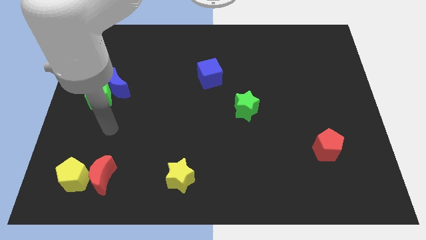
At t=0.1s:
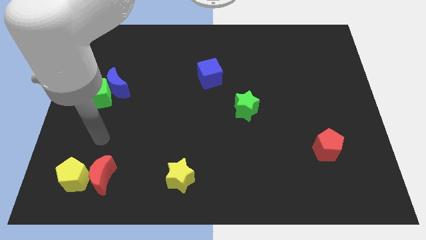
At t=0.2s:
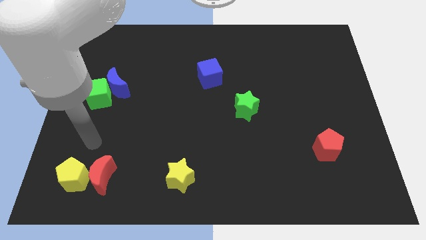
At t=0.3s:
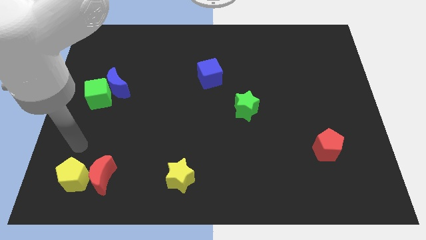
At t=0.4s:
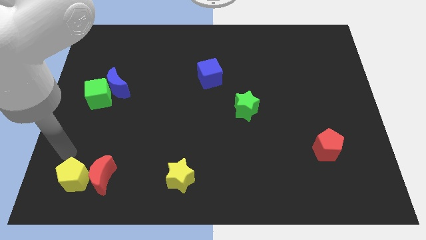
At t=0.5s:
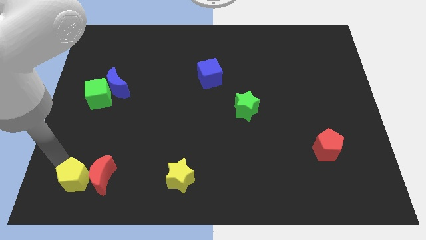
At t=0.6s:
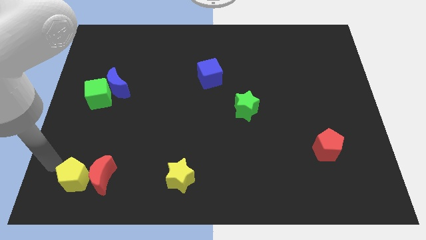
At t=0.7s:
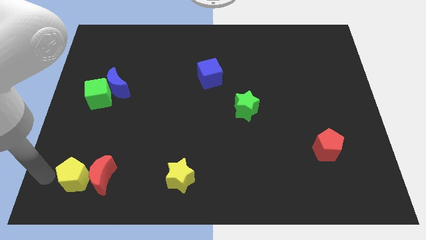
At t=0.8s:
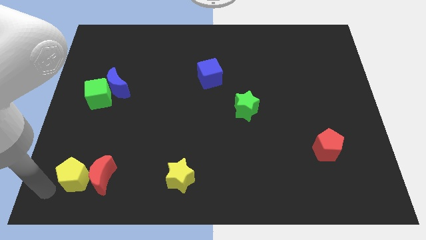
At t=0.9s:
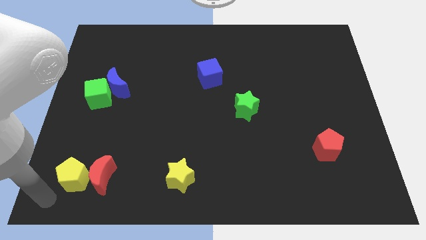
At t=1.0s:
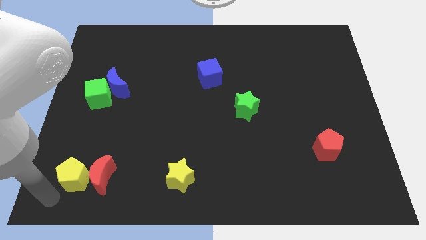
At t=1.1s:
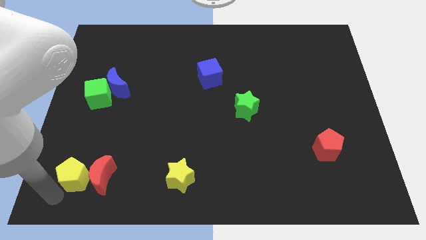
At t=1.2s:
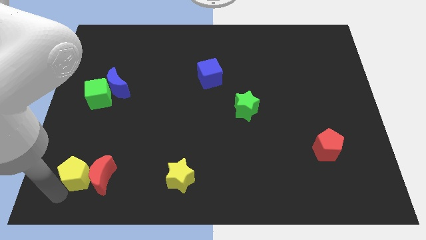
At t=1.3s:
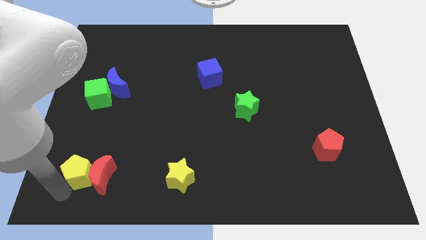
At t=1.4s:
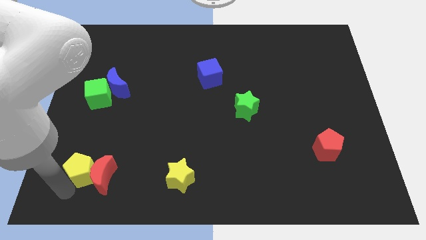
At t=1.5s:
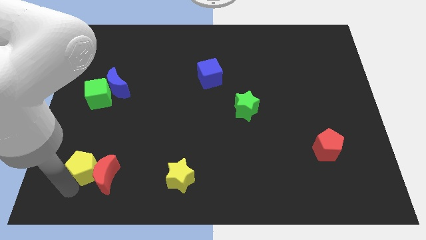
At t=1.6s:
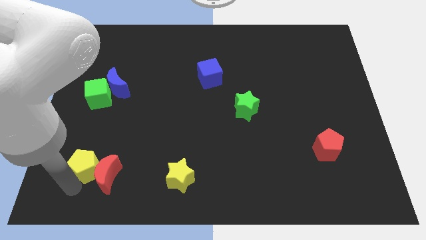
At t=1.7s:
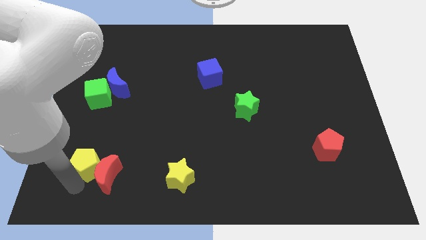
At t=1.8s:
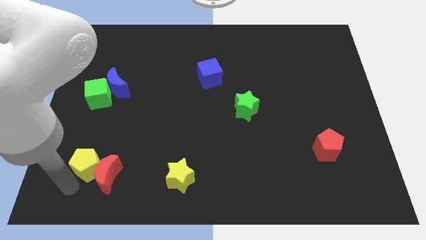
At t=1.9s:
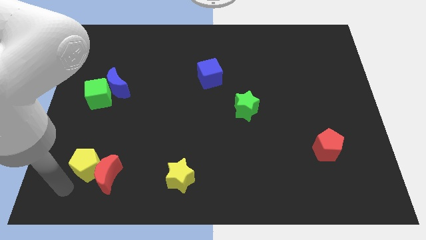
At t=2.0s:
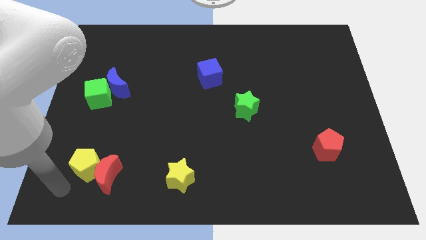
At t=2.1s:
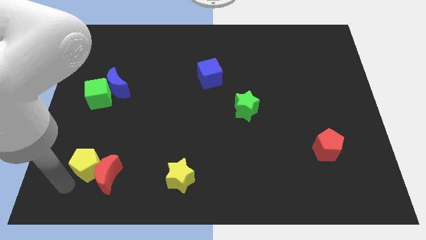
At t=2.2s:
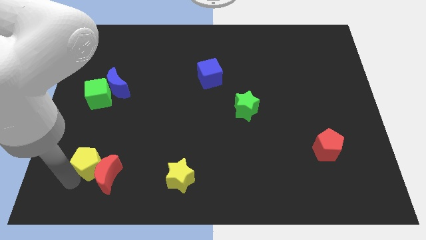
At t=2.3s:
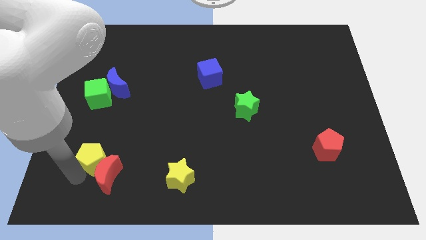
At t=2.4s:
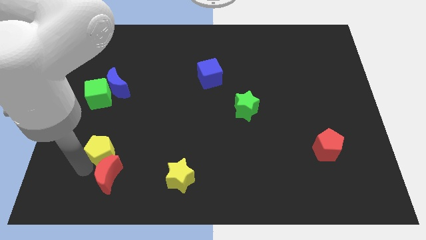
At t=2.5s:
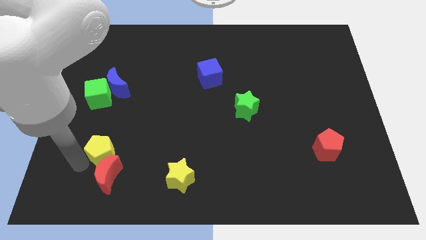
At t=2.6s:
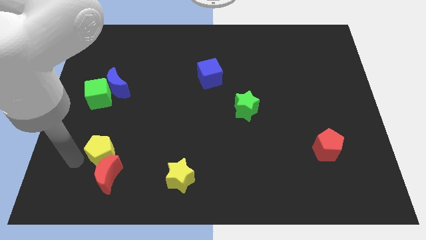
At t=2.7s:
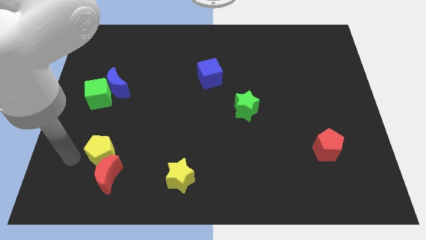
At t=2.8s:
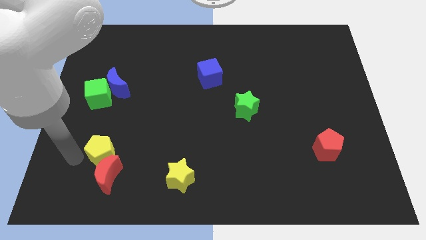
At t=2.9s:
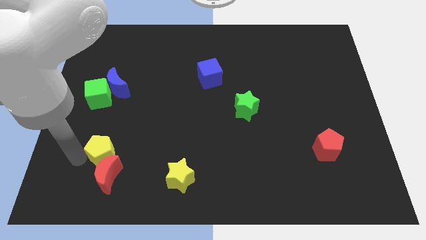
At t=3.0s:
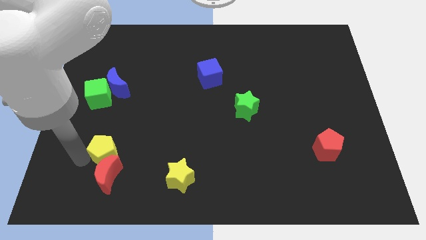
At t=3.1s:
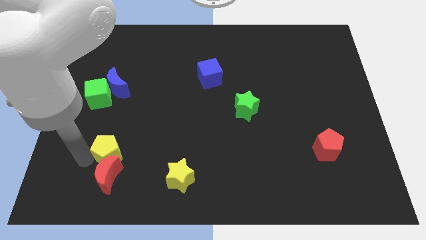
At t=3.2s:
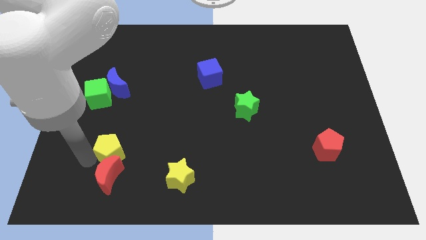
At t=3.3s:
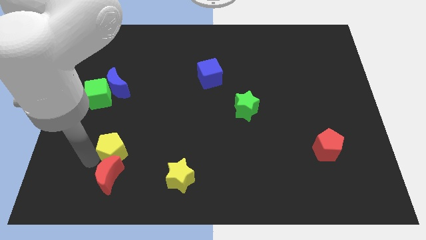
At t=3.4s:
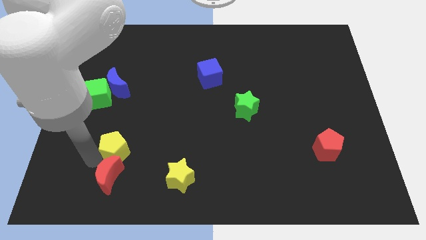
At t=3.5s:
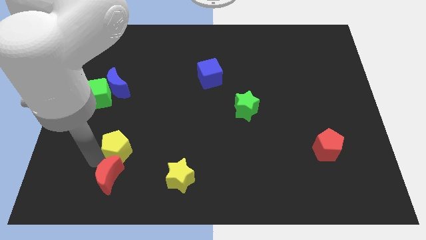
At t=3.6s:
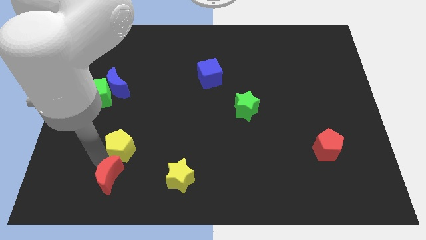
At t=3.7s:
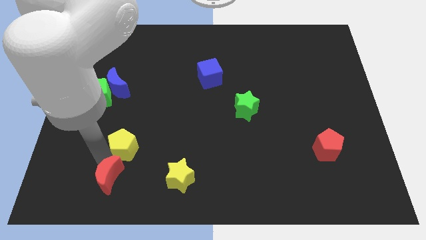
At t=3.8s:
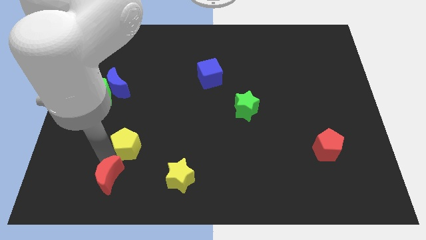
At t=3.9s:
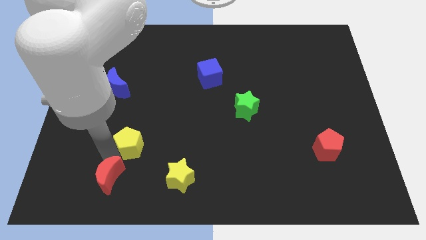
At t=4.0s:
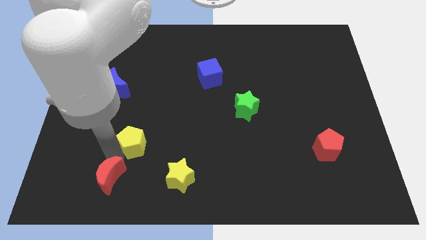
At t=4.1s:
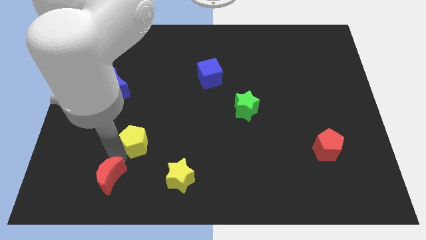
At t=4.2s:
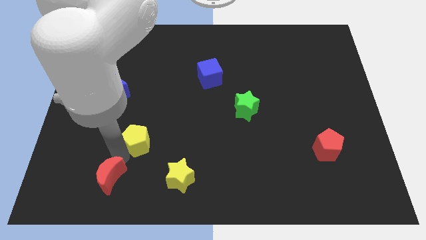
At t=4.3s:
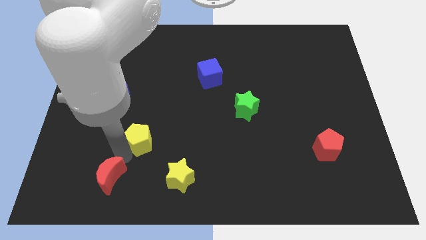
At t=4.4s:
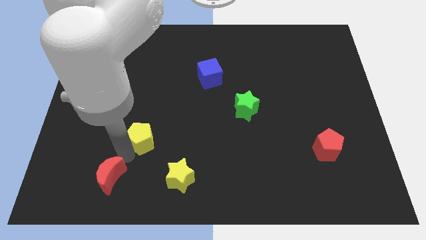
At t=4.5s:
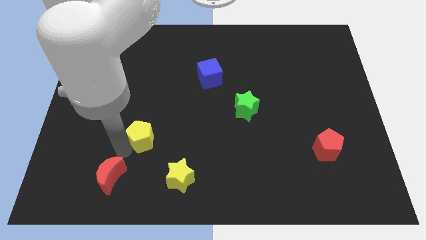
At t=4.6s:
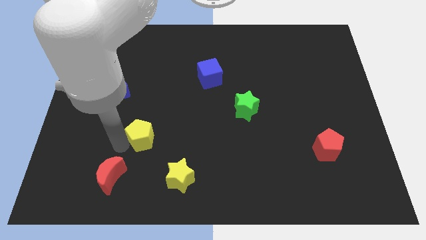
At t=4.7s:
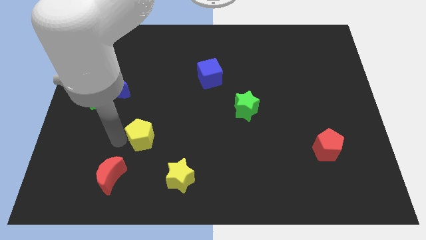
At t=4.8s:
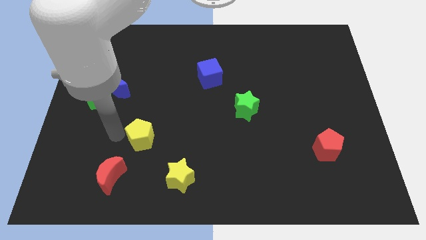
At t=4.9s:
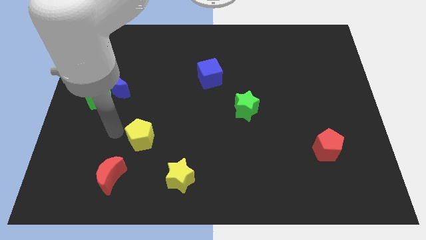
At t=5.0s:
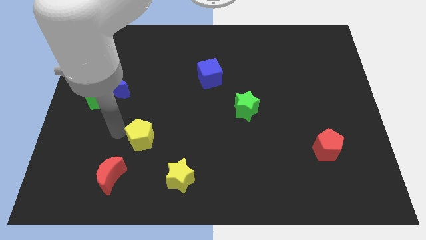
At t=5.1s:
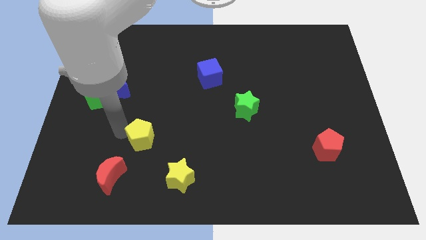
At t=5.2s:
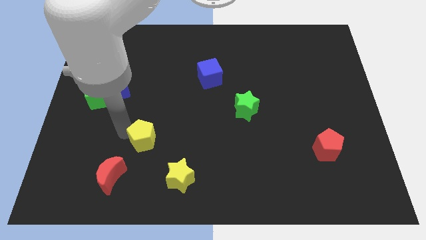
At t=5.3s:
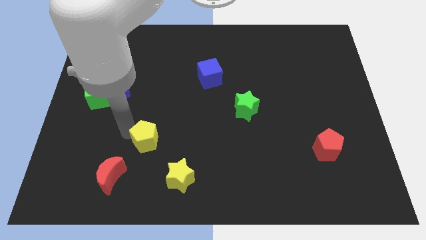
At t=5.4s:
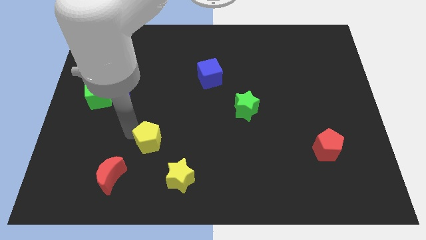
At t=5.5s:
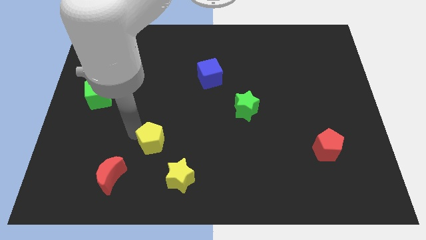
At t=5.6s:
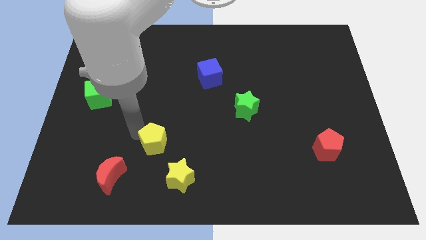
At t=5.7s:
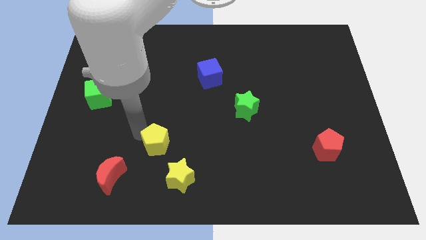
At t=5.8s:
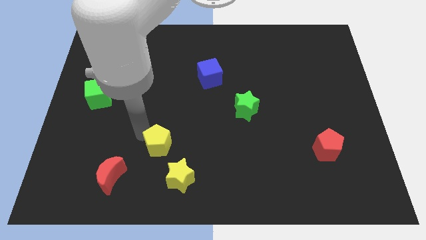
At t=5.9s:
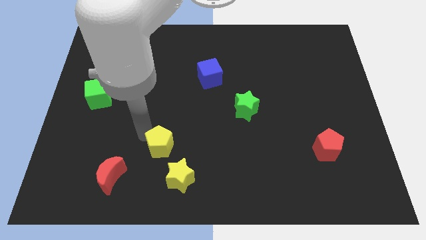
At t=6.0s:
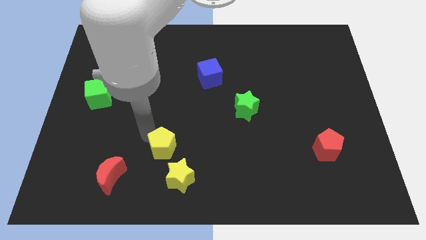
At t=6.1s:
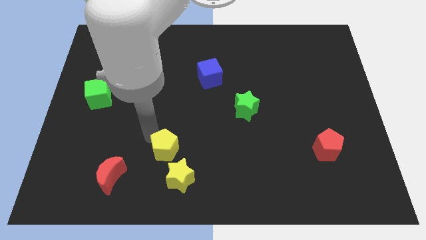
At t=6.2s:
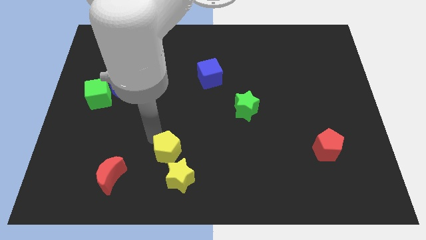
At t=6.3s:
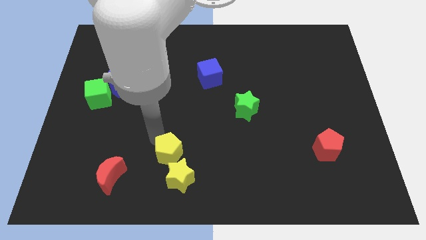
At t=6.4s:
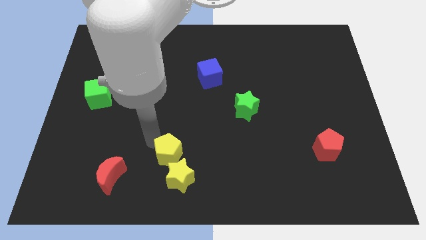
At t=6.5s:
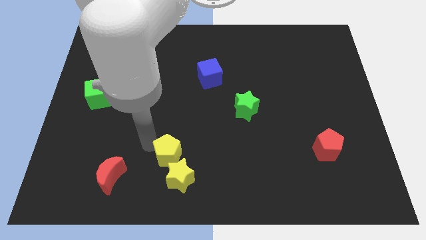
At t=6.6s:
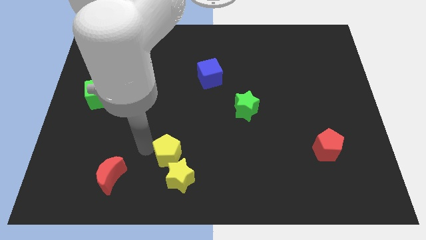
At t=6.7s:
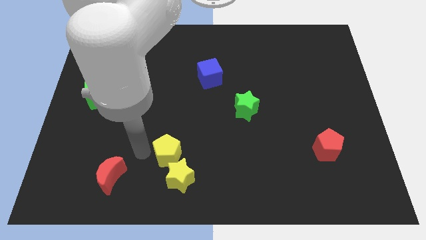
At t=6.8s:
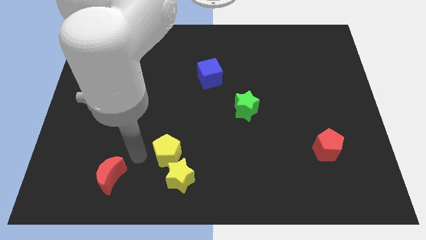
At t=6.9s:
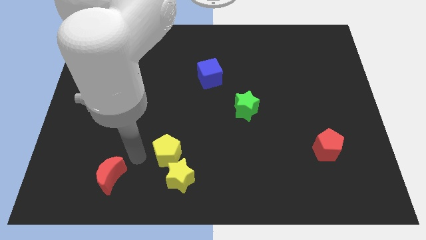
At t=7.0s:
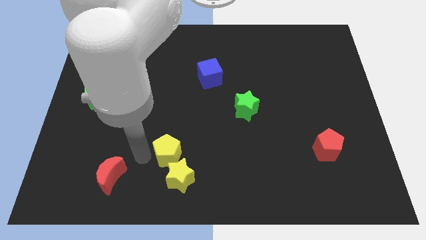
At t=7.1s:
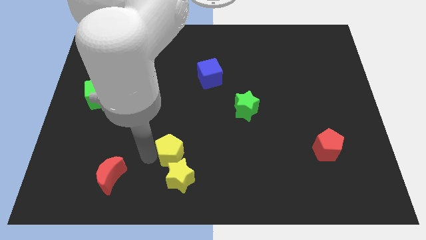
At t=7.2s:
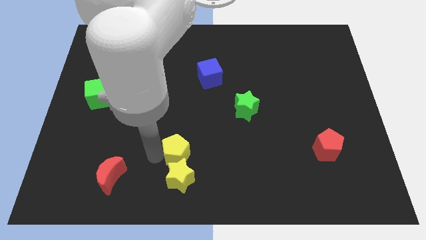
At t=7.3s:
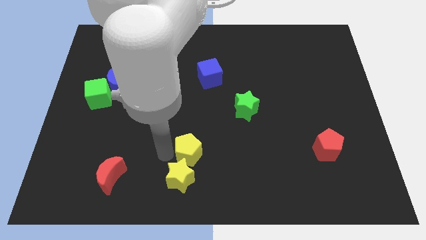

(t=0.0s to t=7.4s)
push the yellow pentagon to the right

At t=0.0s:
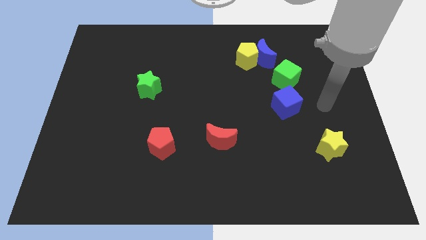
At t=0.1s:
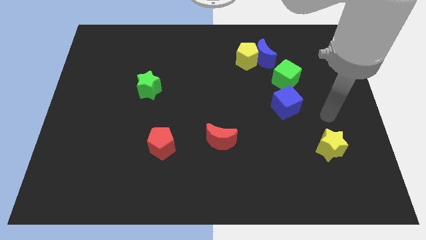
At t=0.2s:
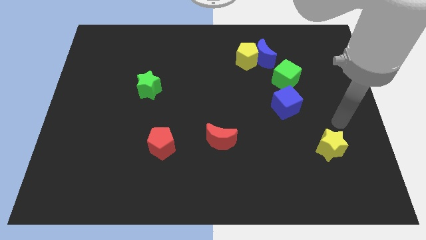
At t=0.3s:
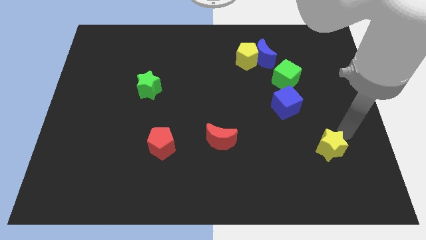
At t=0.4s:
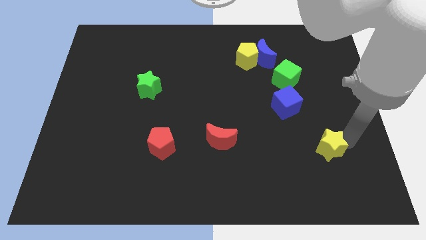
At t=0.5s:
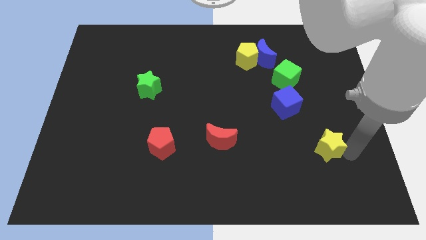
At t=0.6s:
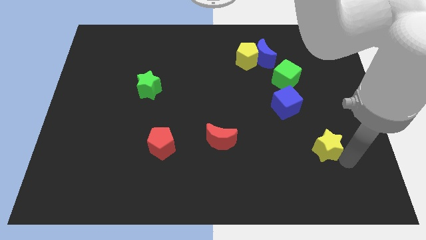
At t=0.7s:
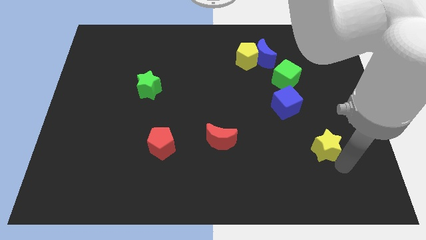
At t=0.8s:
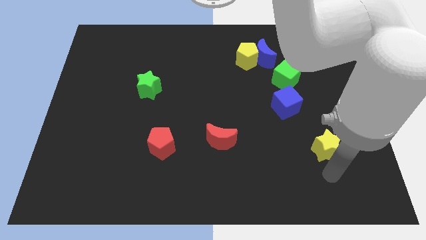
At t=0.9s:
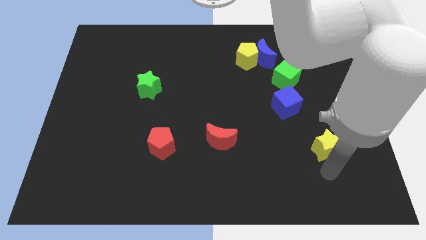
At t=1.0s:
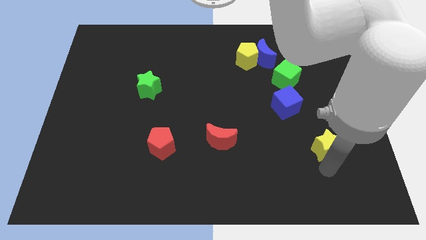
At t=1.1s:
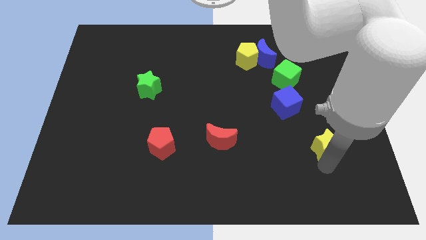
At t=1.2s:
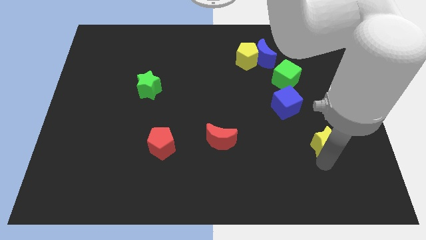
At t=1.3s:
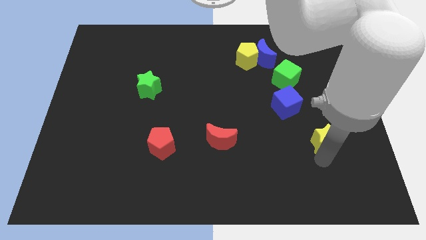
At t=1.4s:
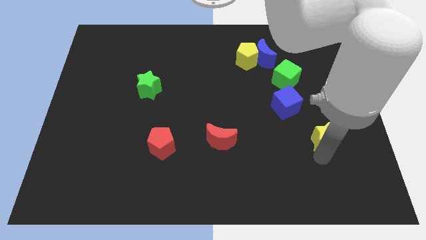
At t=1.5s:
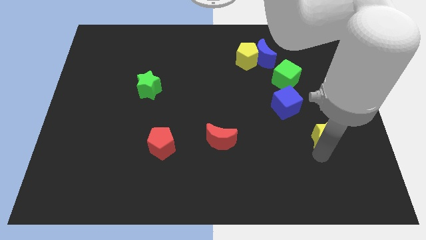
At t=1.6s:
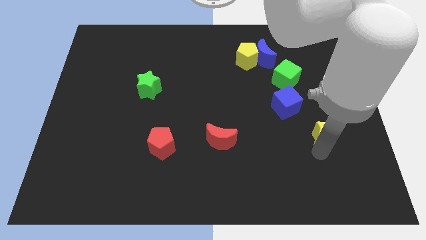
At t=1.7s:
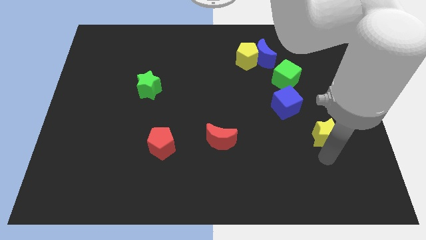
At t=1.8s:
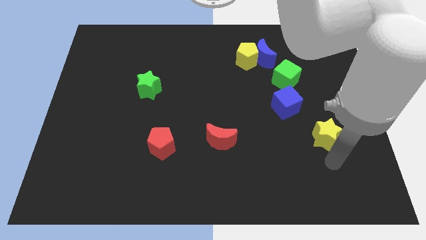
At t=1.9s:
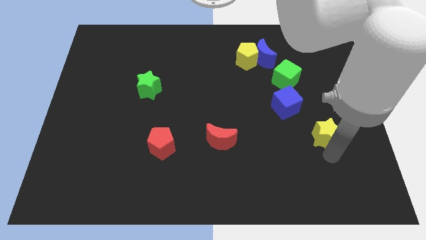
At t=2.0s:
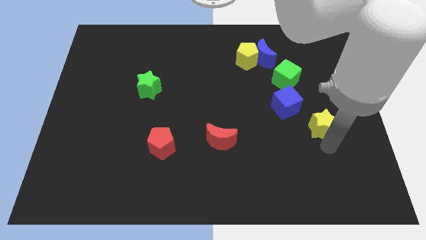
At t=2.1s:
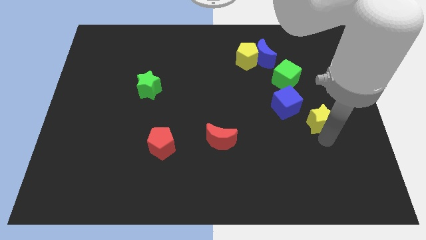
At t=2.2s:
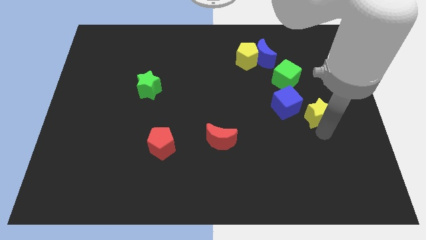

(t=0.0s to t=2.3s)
move the yellow star somewhat upwards
